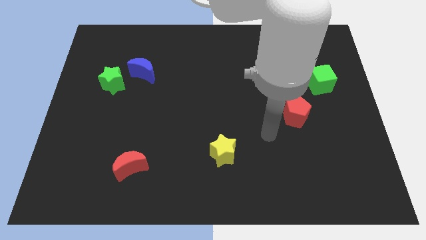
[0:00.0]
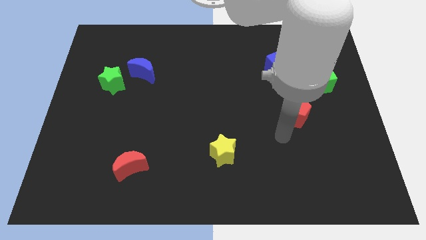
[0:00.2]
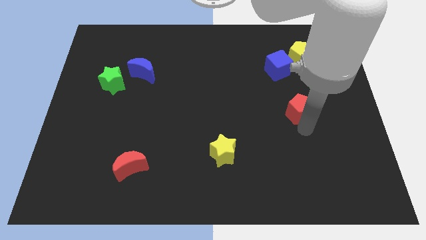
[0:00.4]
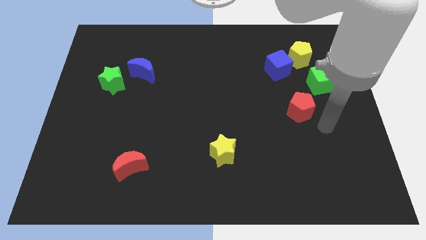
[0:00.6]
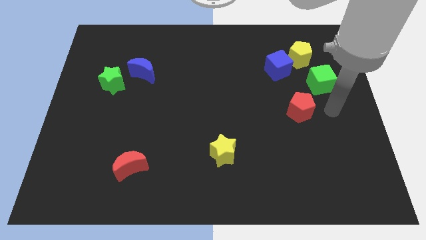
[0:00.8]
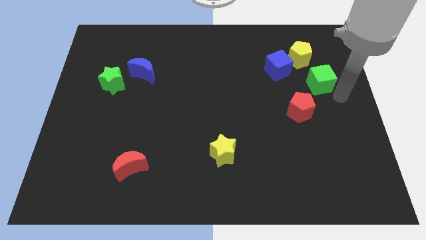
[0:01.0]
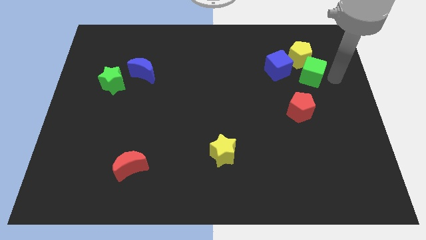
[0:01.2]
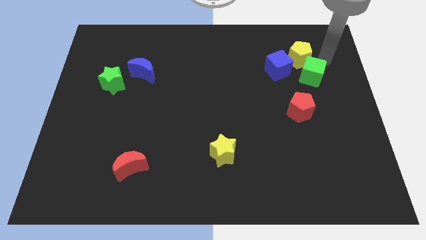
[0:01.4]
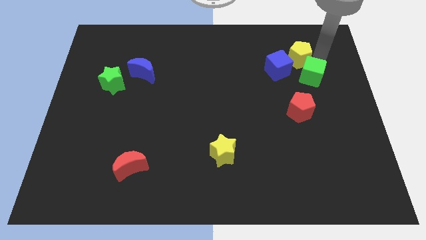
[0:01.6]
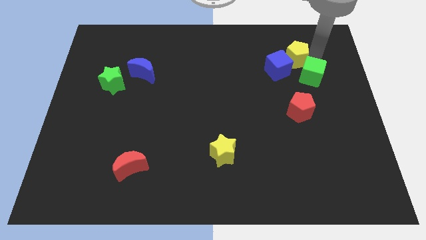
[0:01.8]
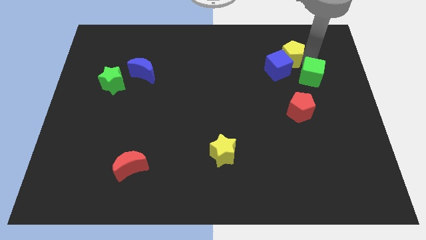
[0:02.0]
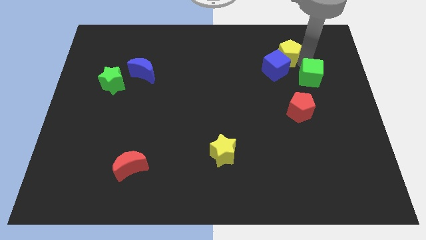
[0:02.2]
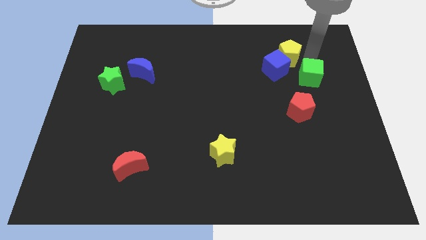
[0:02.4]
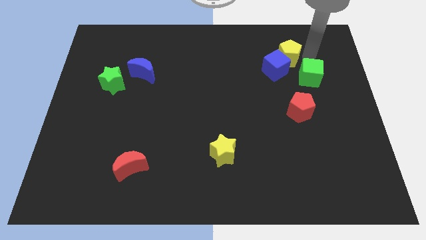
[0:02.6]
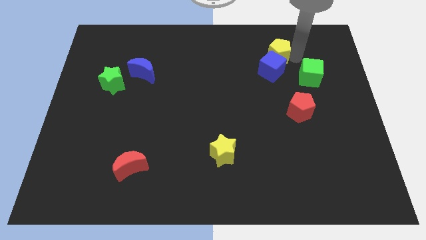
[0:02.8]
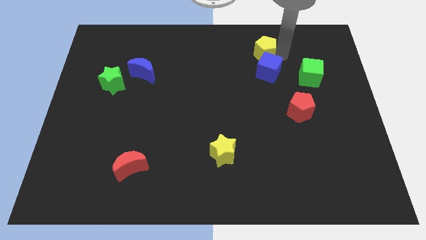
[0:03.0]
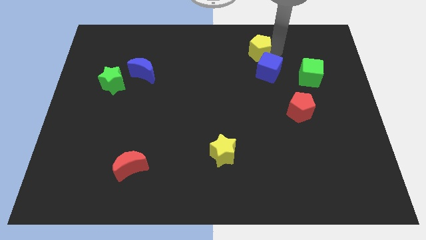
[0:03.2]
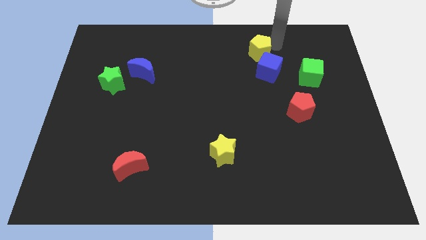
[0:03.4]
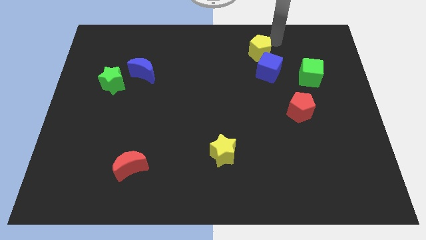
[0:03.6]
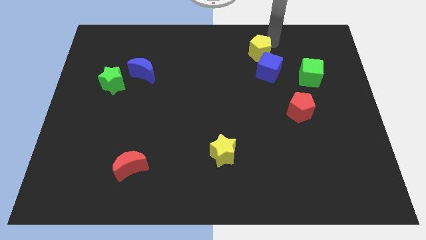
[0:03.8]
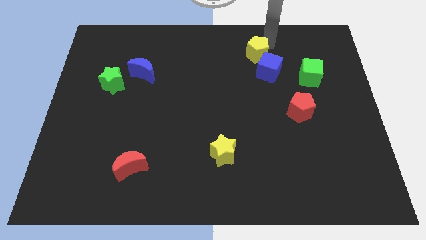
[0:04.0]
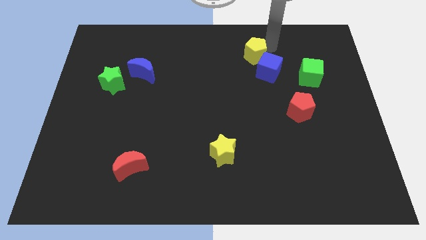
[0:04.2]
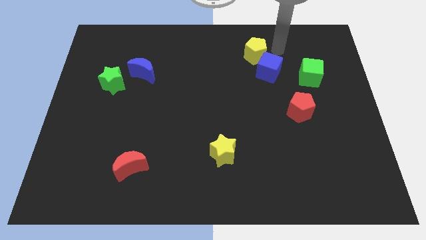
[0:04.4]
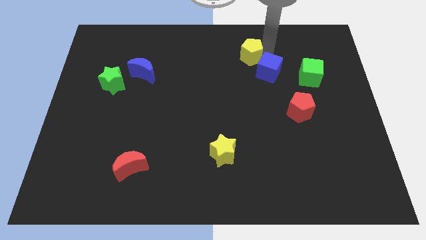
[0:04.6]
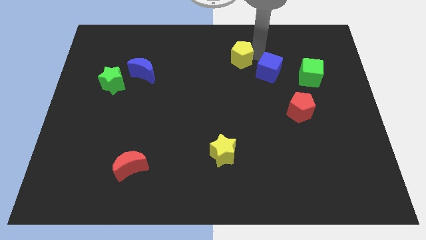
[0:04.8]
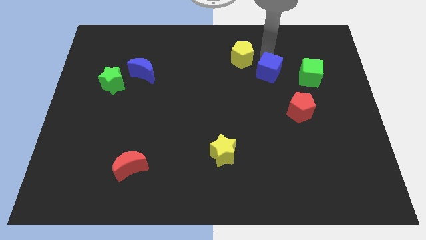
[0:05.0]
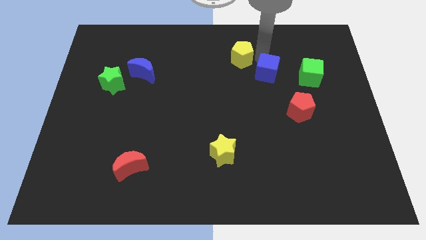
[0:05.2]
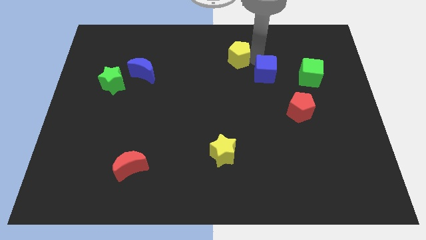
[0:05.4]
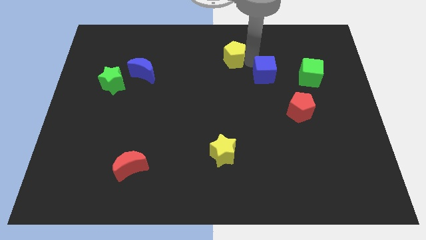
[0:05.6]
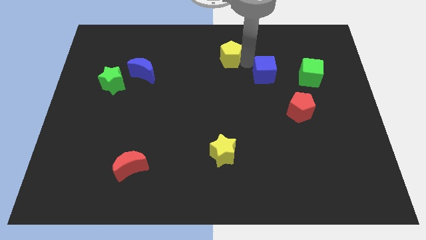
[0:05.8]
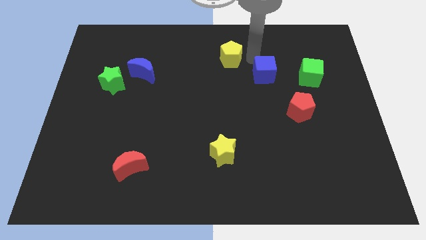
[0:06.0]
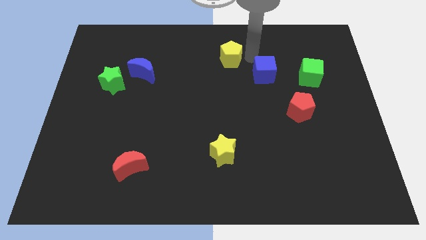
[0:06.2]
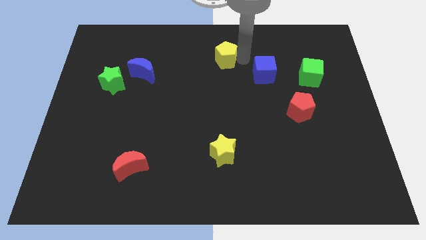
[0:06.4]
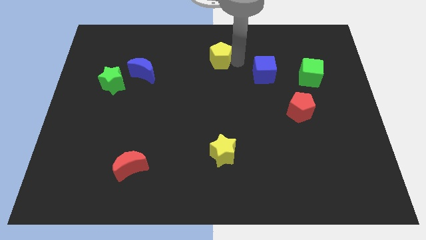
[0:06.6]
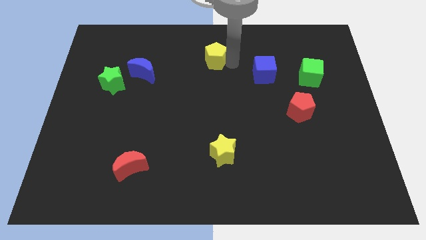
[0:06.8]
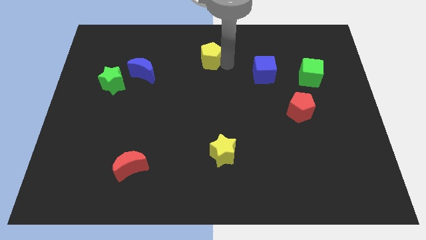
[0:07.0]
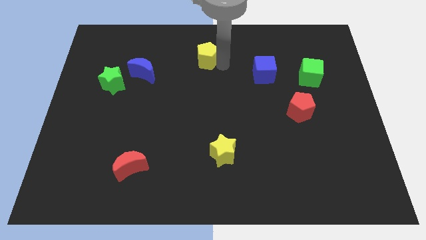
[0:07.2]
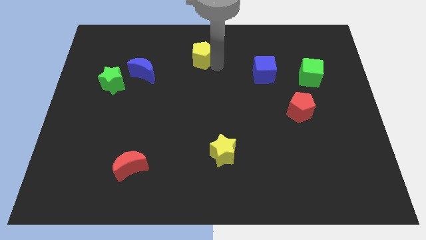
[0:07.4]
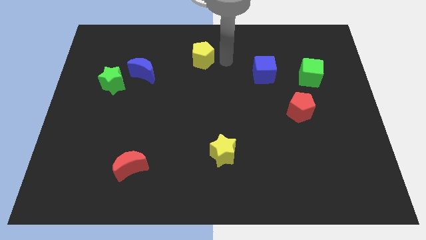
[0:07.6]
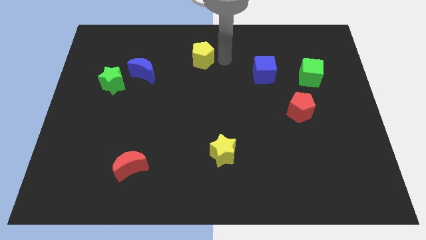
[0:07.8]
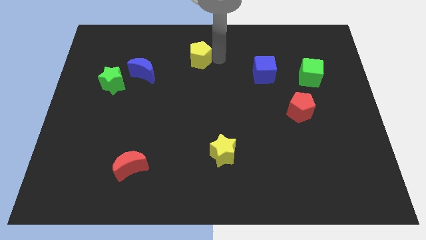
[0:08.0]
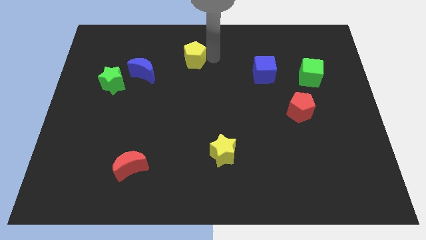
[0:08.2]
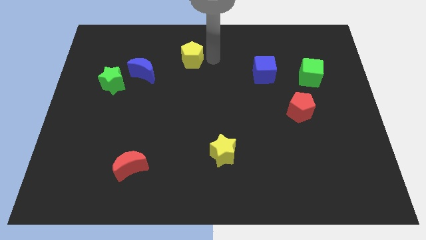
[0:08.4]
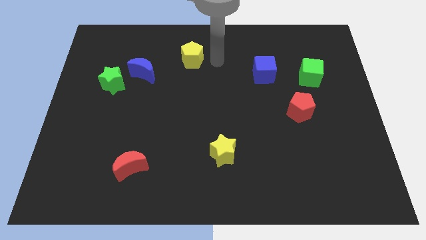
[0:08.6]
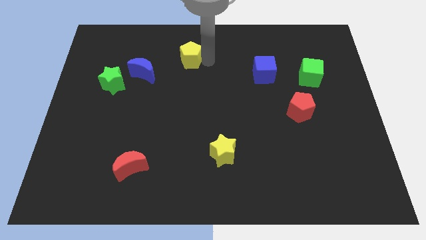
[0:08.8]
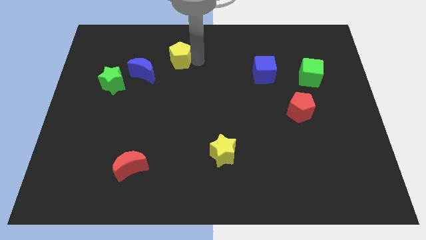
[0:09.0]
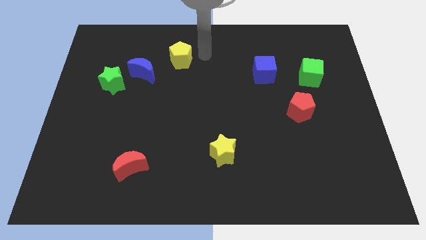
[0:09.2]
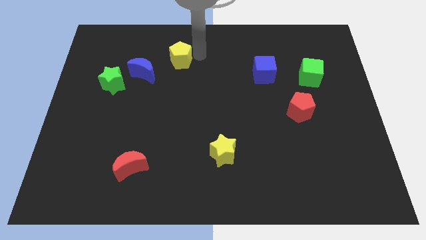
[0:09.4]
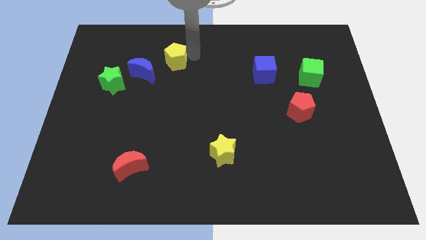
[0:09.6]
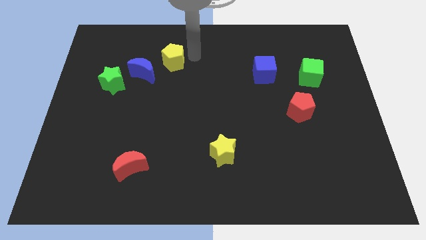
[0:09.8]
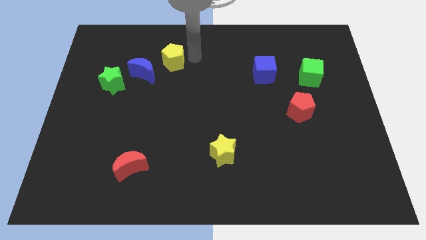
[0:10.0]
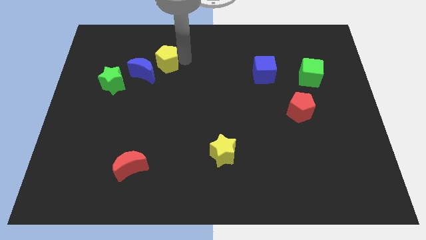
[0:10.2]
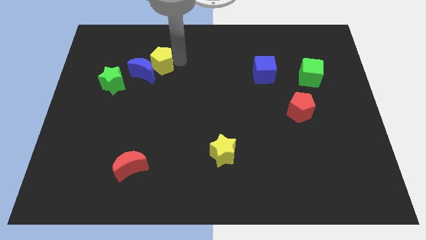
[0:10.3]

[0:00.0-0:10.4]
put the yellow pentagon to the blue moon

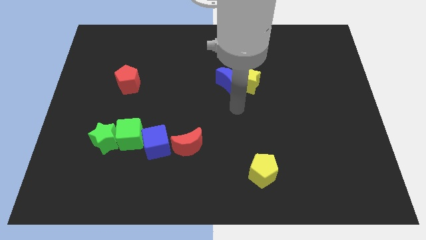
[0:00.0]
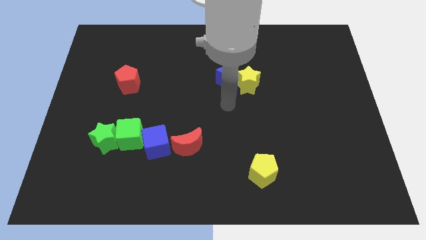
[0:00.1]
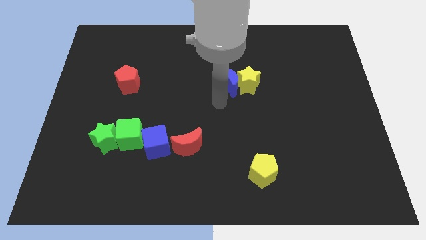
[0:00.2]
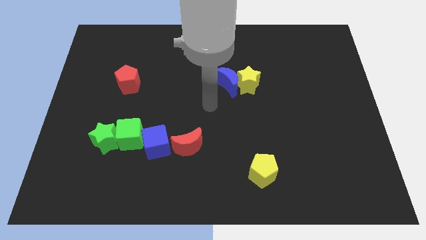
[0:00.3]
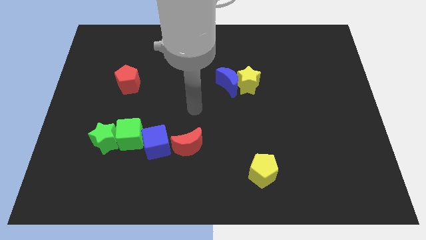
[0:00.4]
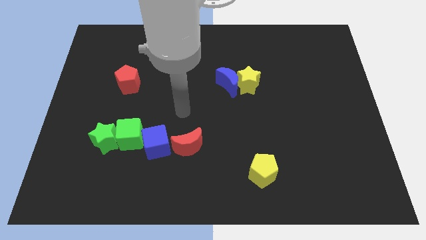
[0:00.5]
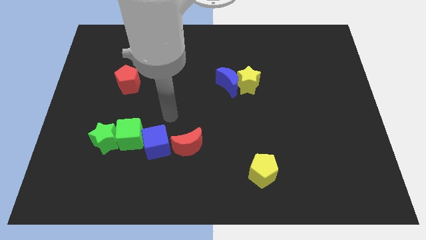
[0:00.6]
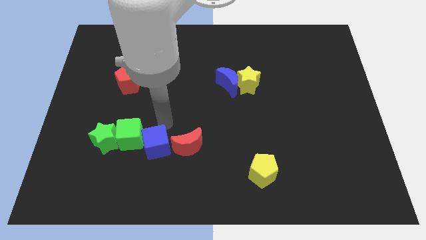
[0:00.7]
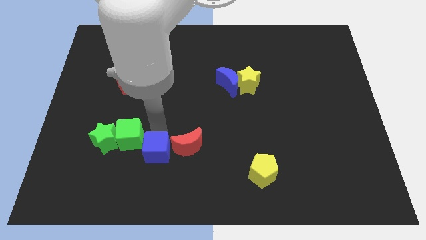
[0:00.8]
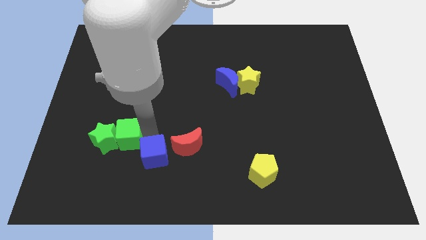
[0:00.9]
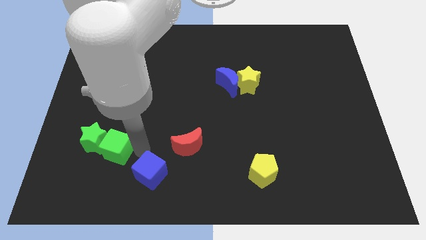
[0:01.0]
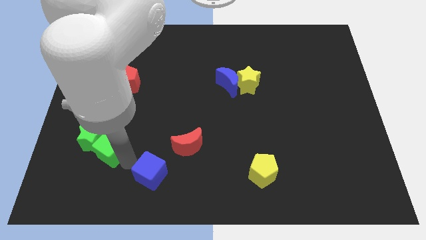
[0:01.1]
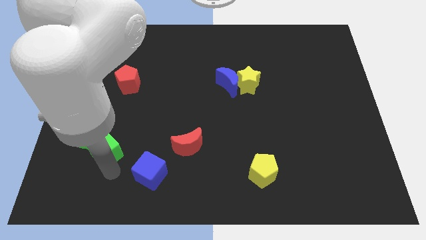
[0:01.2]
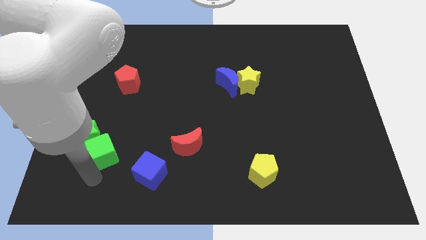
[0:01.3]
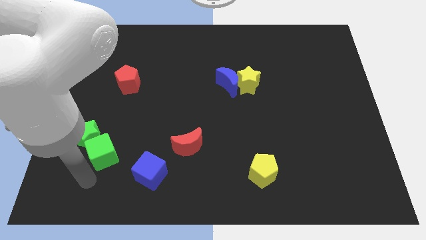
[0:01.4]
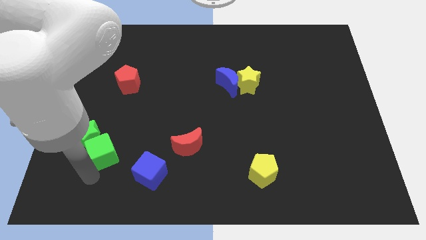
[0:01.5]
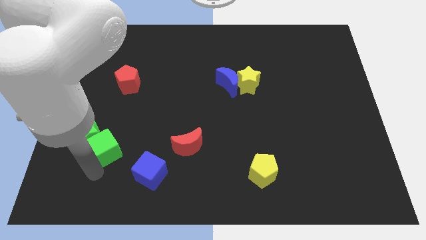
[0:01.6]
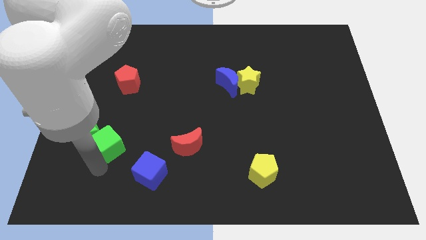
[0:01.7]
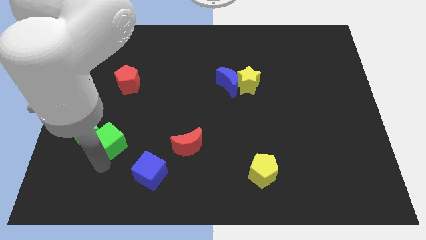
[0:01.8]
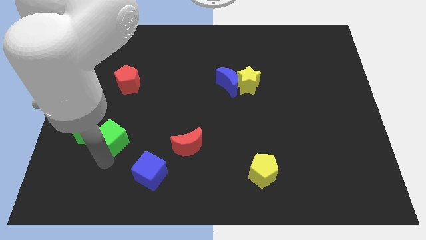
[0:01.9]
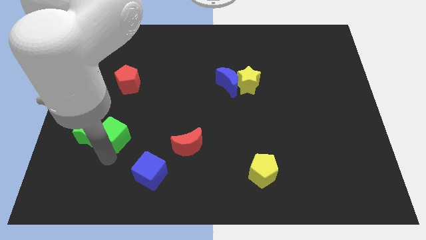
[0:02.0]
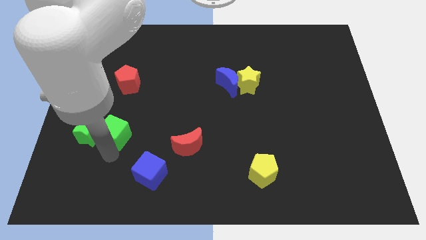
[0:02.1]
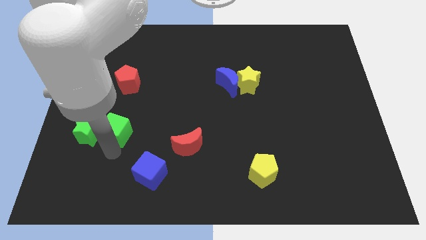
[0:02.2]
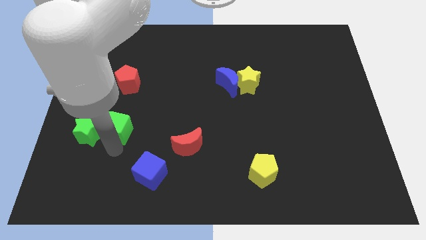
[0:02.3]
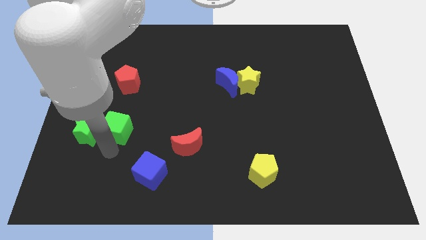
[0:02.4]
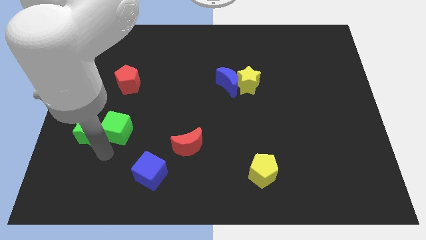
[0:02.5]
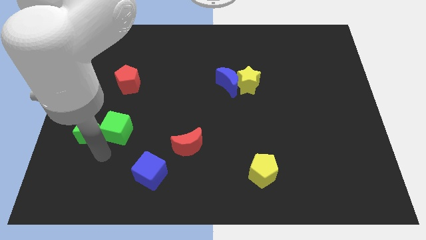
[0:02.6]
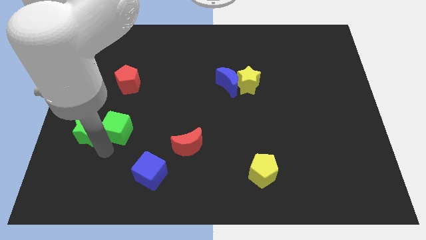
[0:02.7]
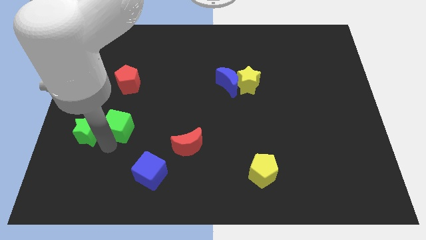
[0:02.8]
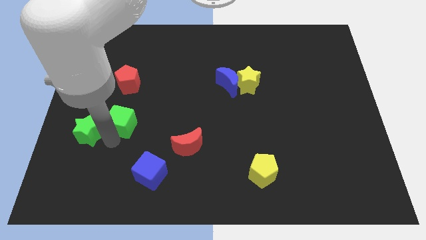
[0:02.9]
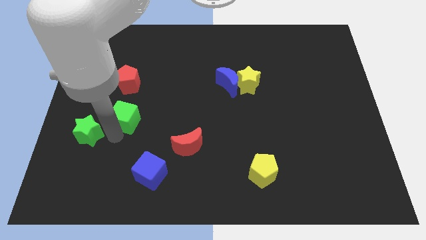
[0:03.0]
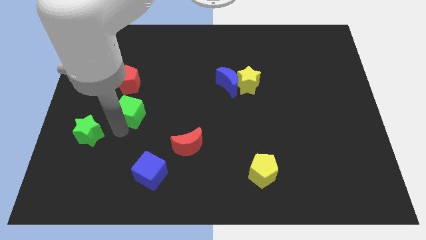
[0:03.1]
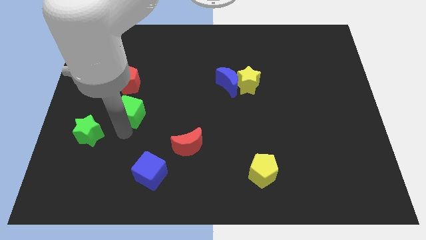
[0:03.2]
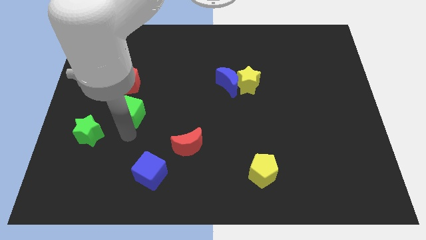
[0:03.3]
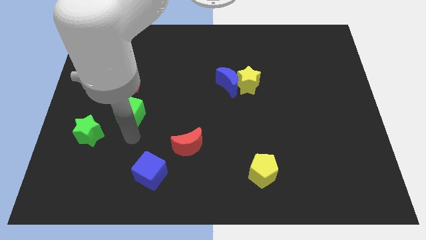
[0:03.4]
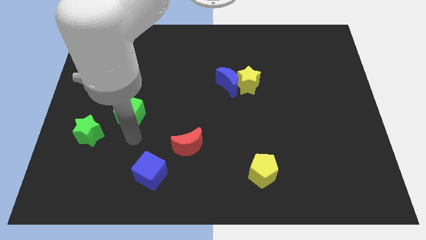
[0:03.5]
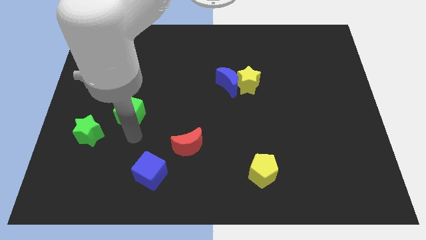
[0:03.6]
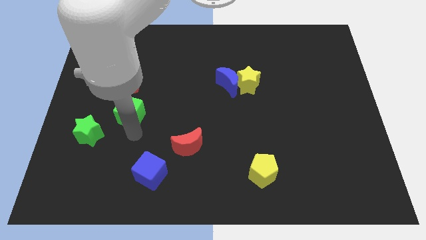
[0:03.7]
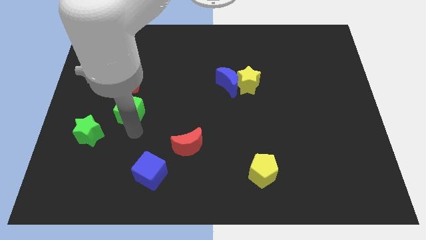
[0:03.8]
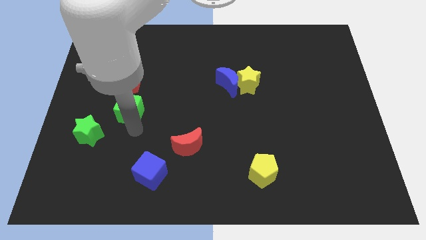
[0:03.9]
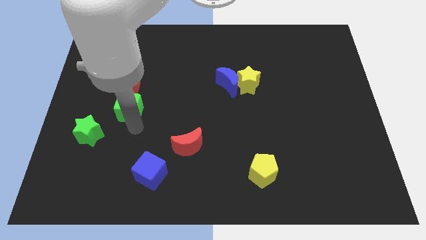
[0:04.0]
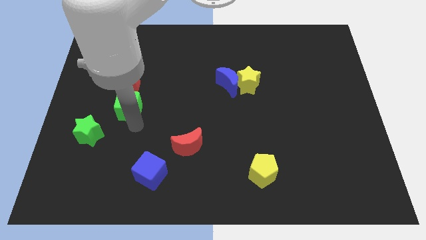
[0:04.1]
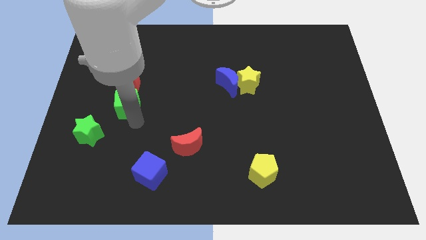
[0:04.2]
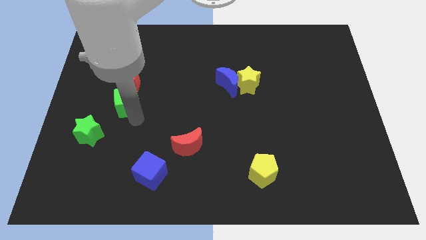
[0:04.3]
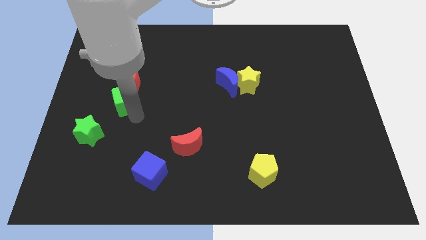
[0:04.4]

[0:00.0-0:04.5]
push the green cube towards the red pentagon
